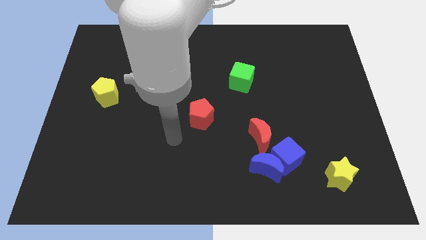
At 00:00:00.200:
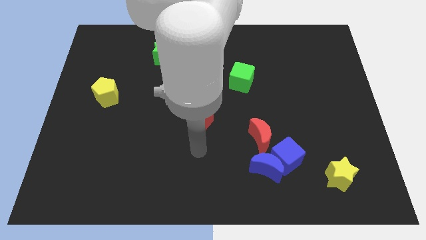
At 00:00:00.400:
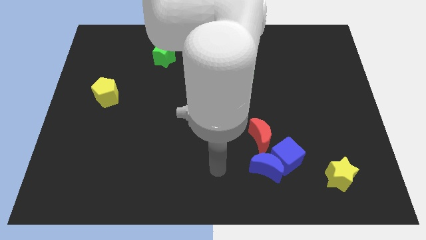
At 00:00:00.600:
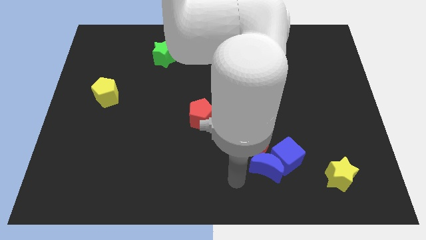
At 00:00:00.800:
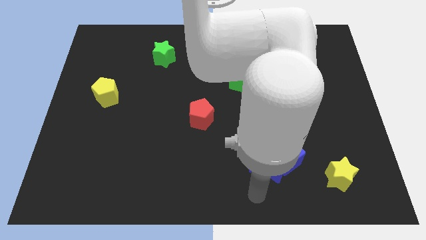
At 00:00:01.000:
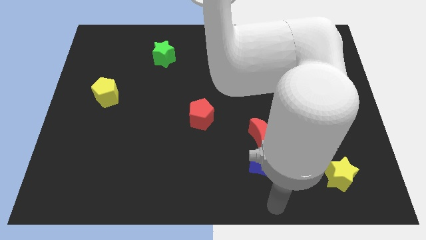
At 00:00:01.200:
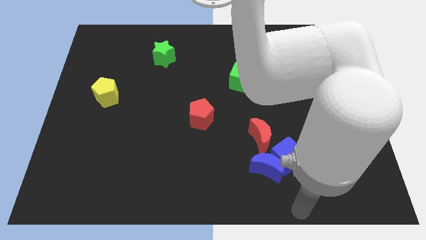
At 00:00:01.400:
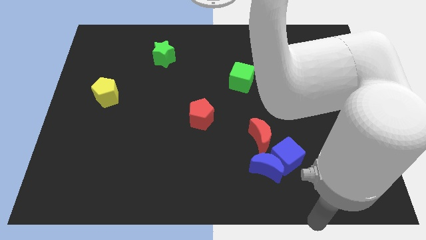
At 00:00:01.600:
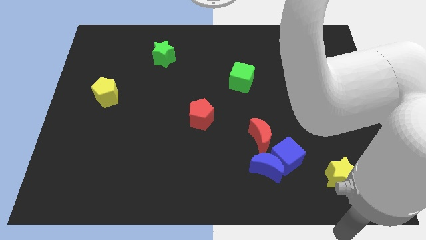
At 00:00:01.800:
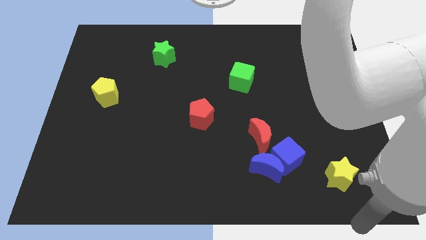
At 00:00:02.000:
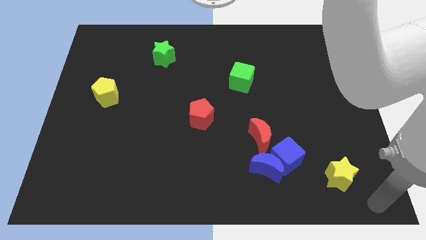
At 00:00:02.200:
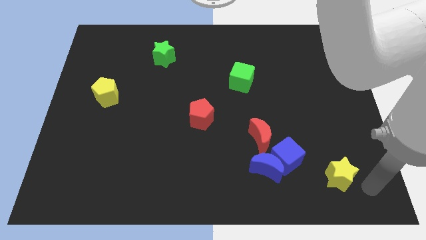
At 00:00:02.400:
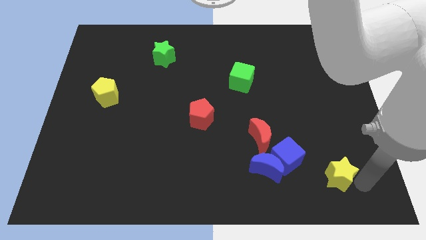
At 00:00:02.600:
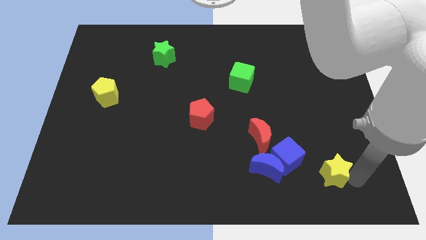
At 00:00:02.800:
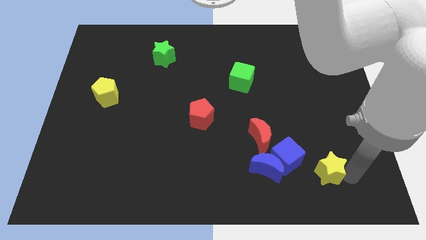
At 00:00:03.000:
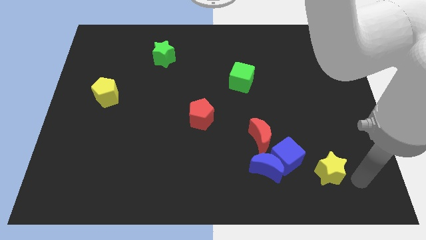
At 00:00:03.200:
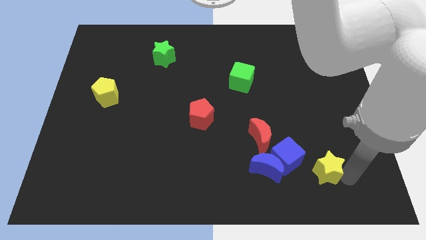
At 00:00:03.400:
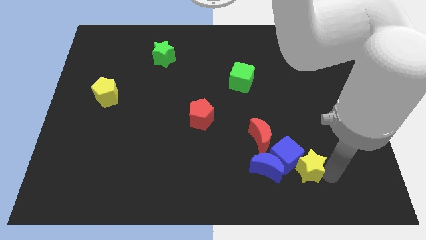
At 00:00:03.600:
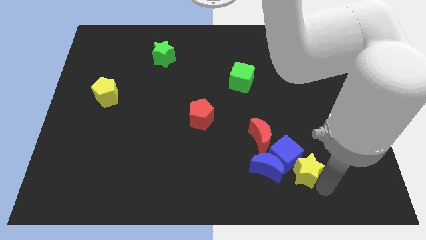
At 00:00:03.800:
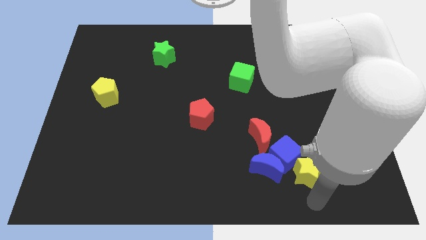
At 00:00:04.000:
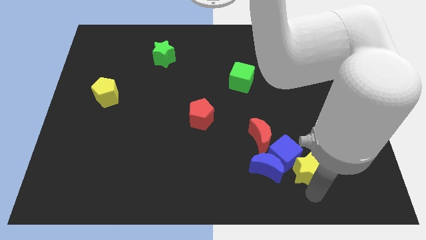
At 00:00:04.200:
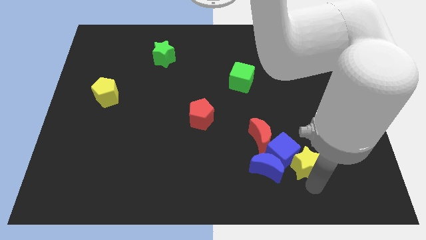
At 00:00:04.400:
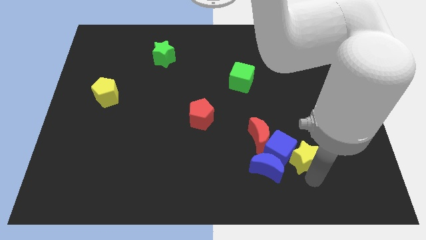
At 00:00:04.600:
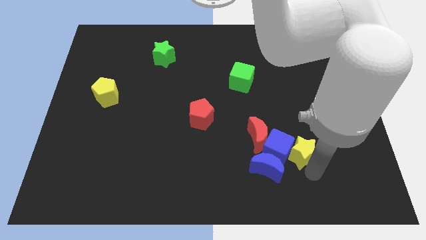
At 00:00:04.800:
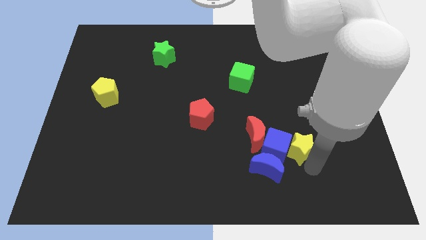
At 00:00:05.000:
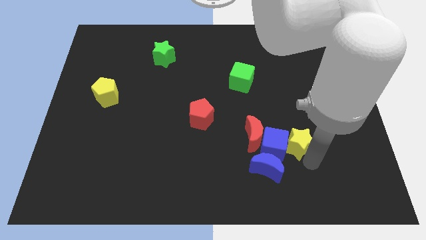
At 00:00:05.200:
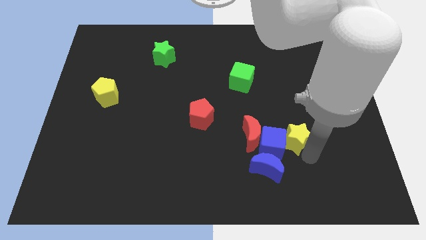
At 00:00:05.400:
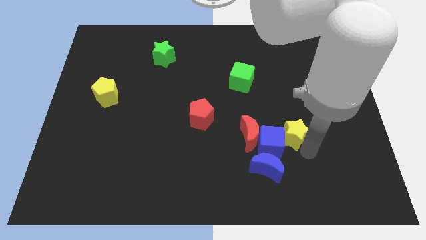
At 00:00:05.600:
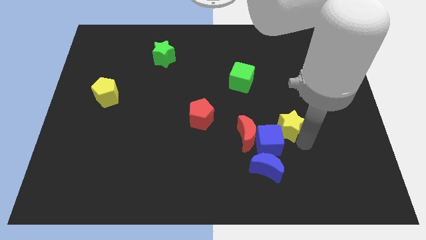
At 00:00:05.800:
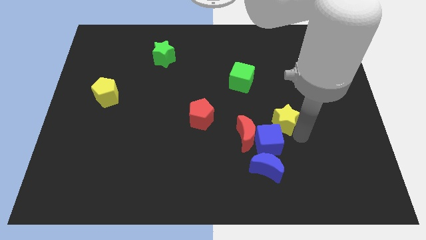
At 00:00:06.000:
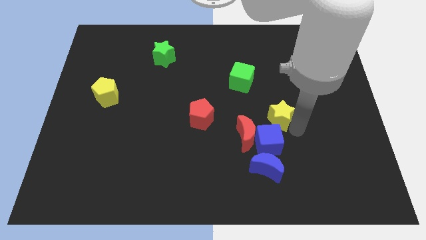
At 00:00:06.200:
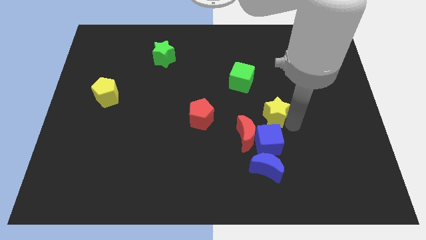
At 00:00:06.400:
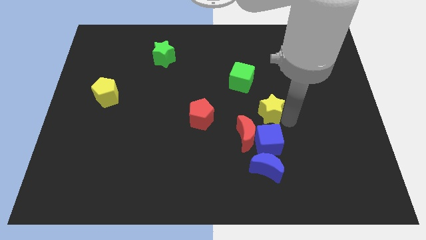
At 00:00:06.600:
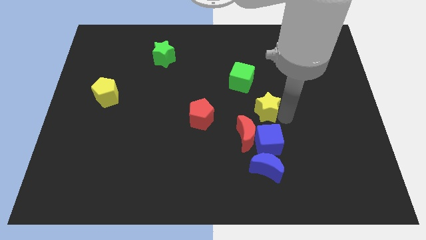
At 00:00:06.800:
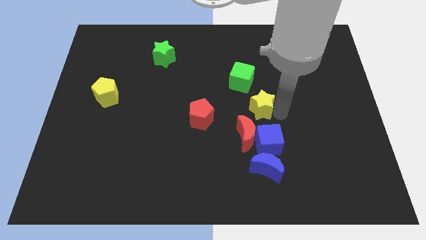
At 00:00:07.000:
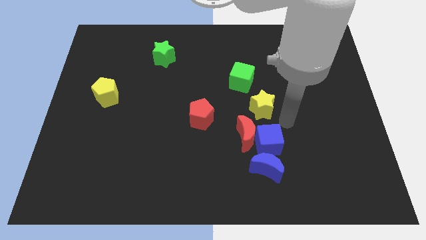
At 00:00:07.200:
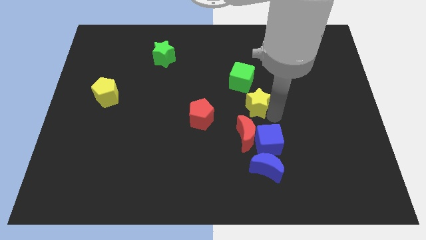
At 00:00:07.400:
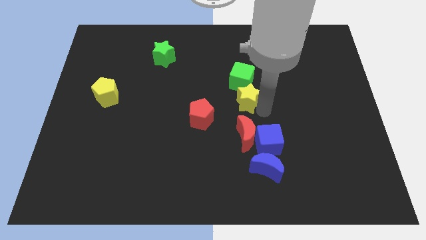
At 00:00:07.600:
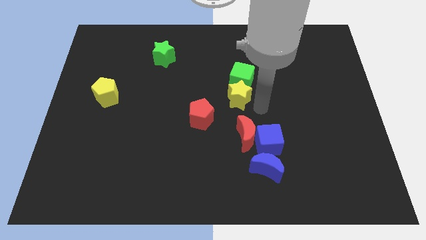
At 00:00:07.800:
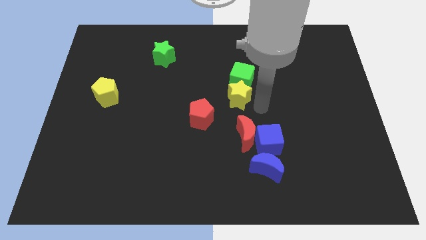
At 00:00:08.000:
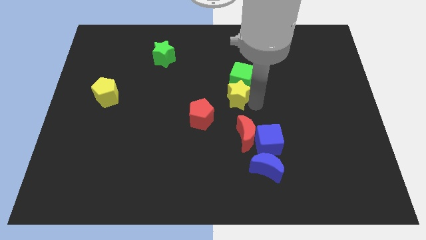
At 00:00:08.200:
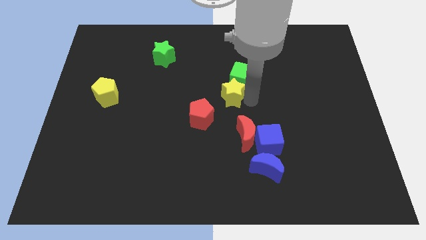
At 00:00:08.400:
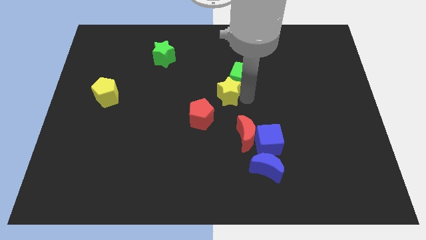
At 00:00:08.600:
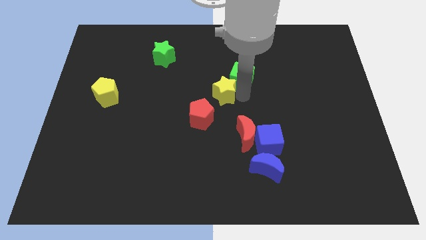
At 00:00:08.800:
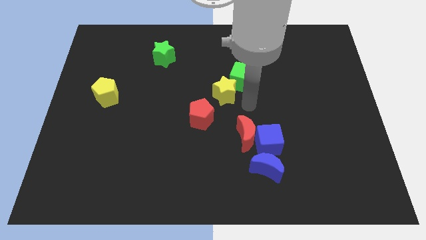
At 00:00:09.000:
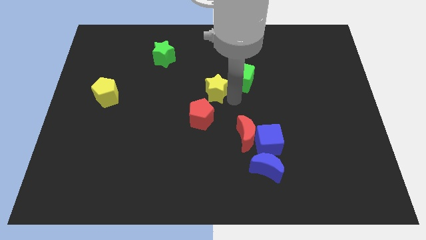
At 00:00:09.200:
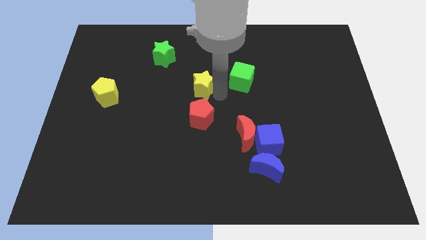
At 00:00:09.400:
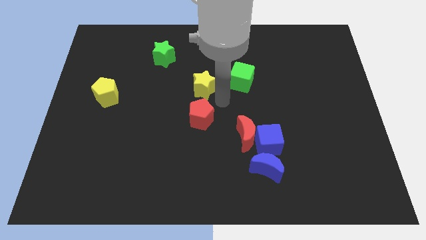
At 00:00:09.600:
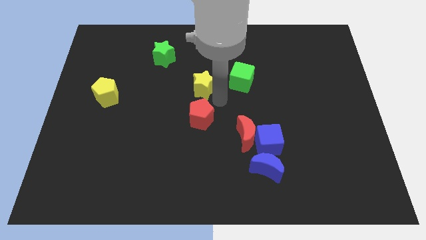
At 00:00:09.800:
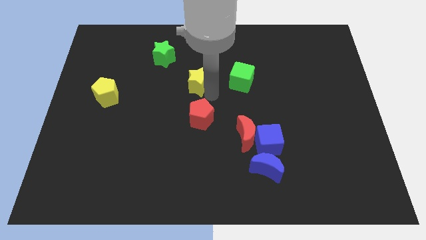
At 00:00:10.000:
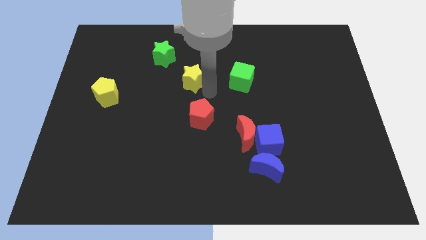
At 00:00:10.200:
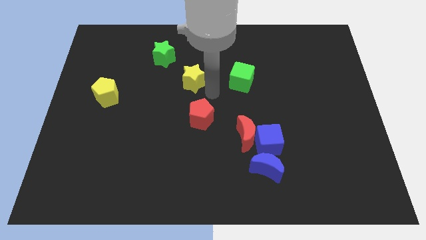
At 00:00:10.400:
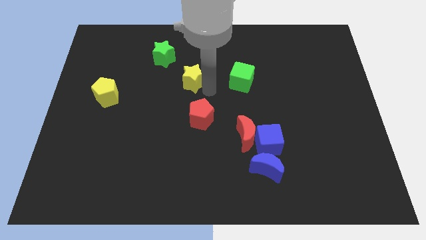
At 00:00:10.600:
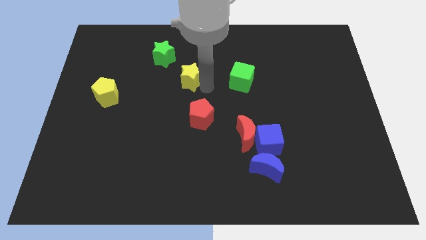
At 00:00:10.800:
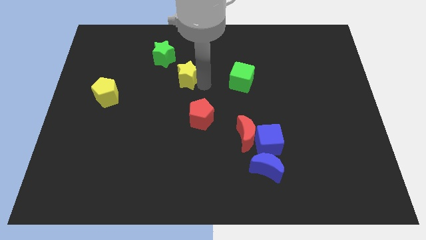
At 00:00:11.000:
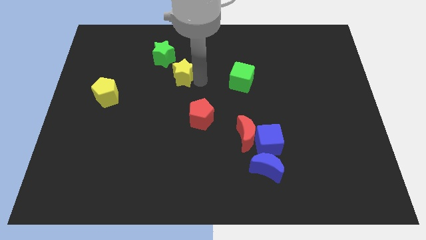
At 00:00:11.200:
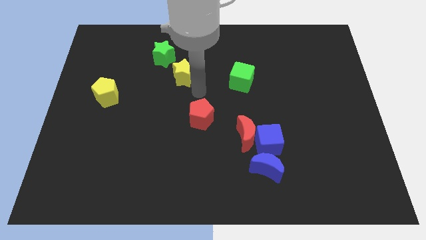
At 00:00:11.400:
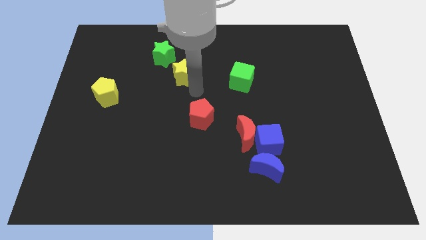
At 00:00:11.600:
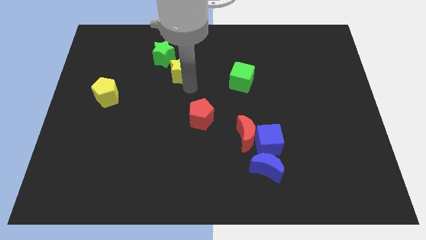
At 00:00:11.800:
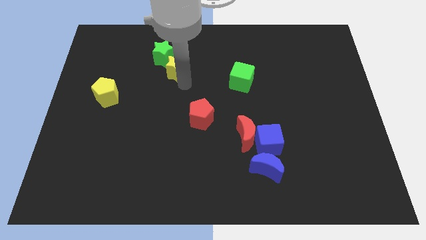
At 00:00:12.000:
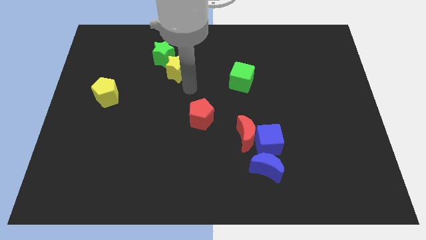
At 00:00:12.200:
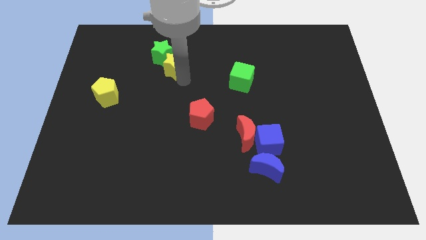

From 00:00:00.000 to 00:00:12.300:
move the yellow star next to the green star
